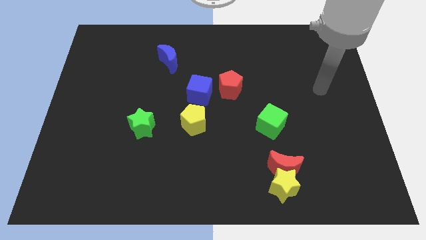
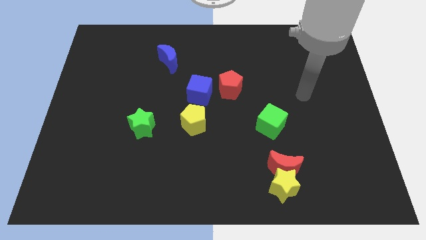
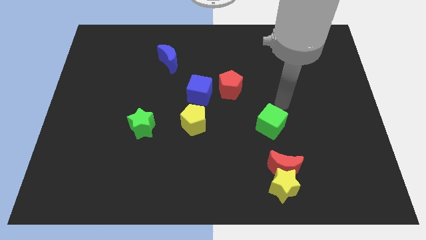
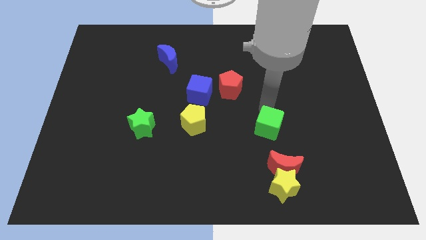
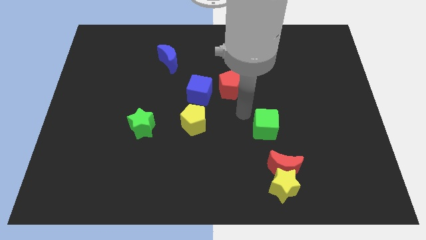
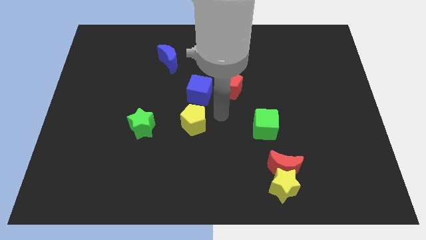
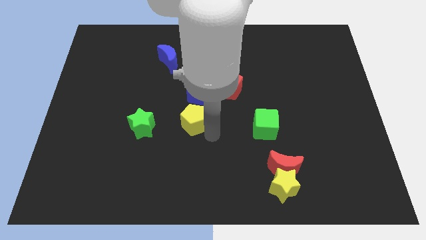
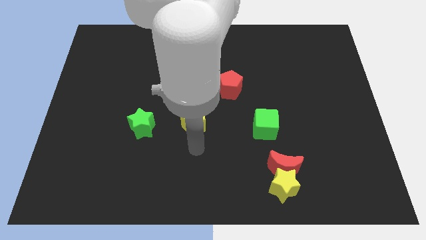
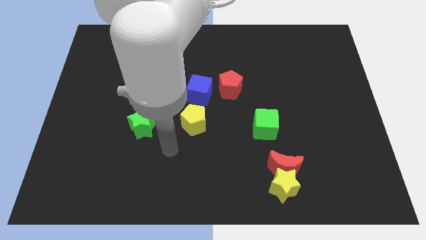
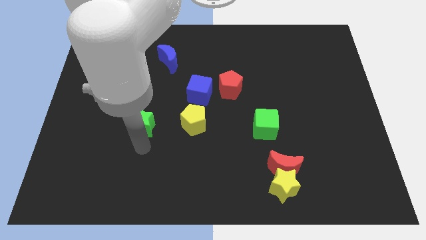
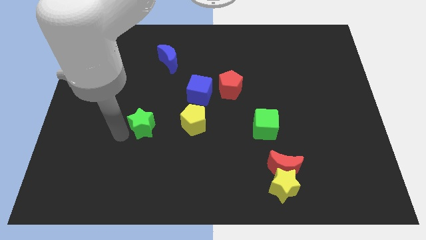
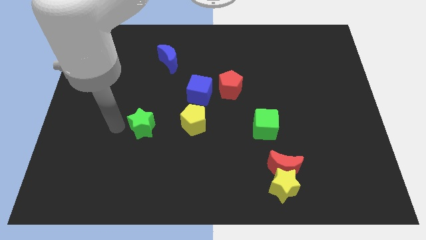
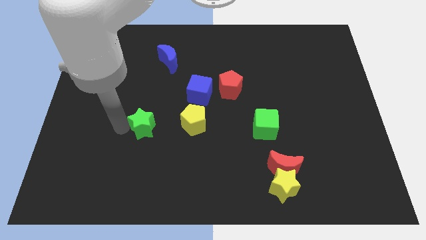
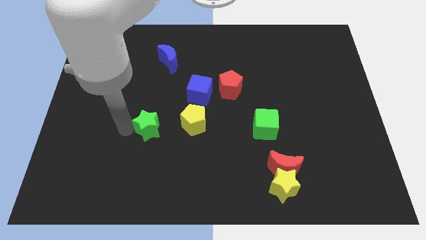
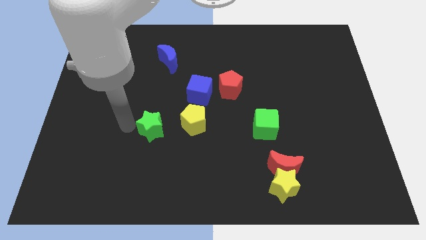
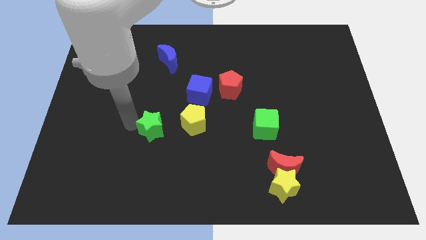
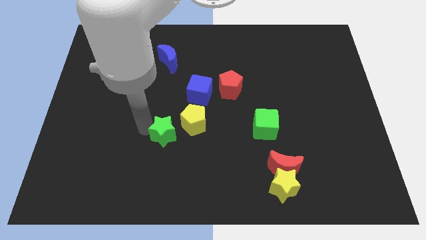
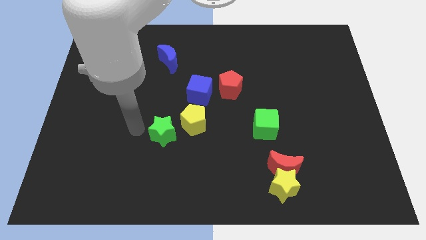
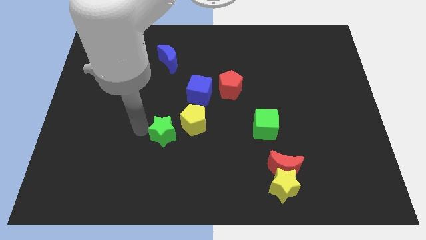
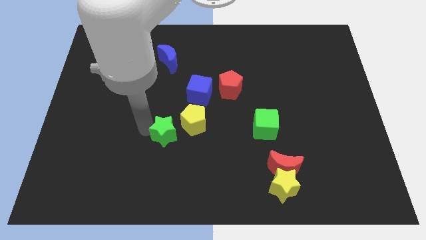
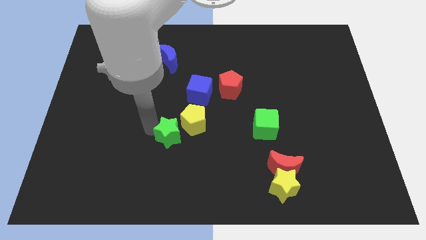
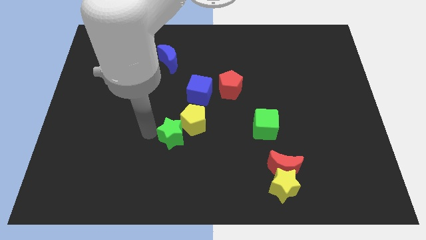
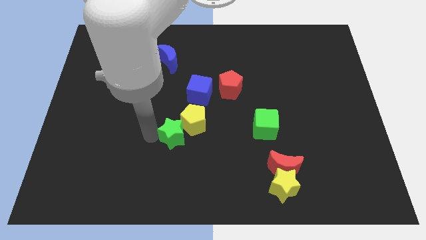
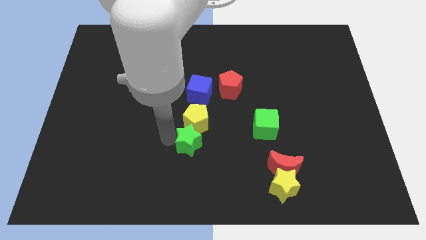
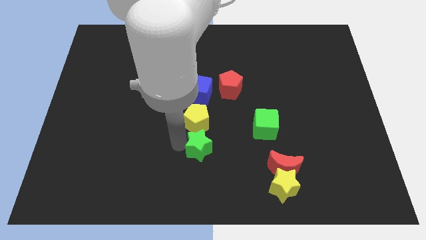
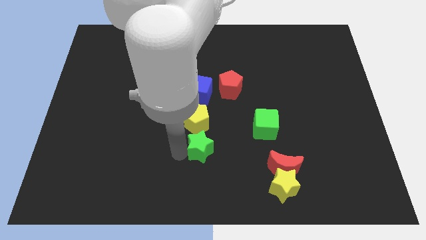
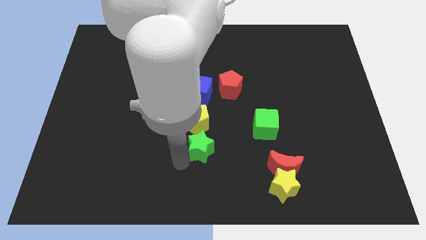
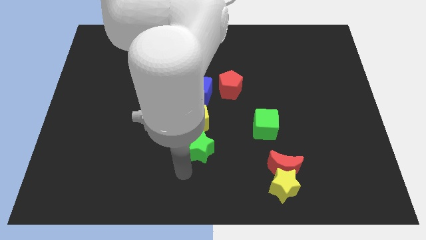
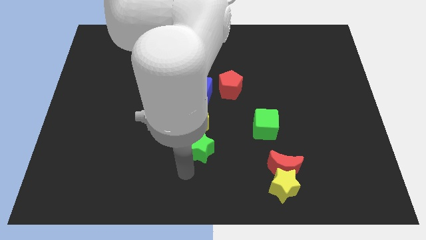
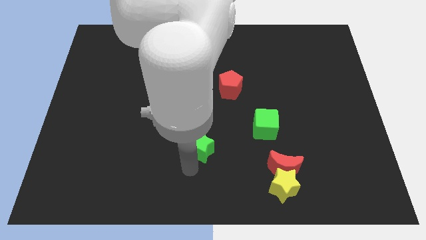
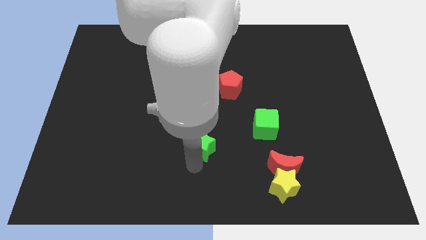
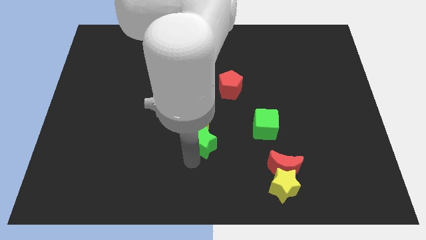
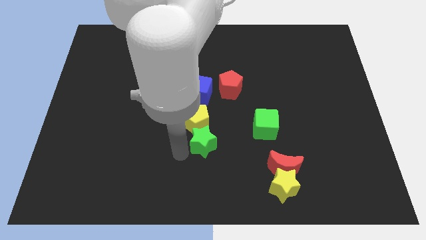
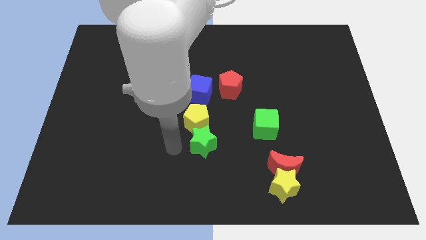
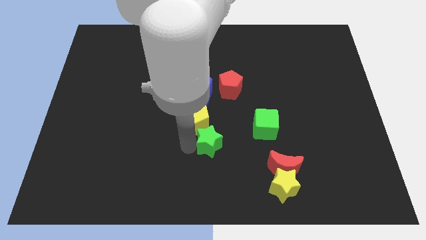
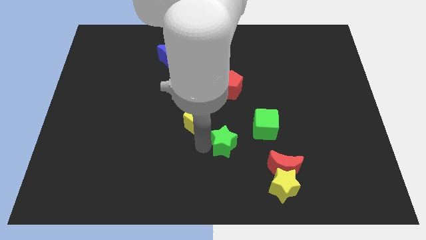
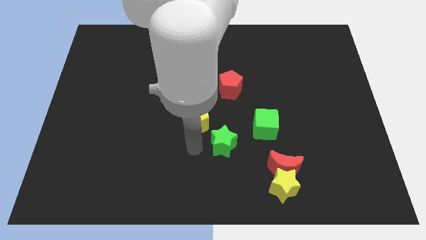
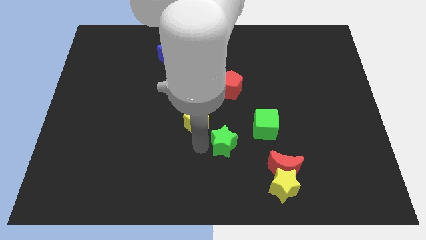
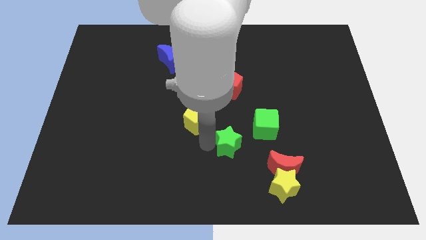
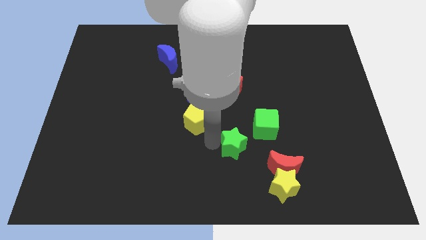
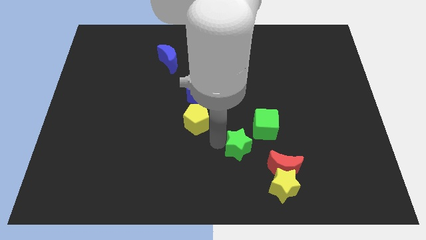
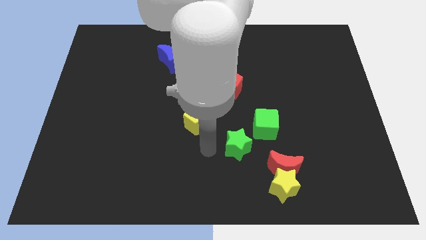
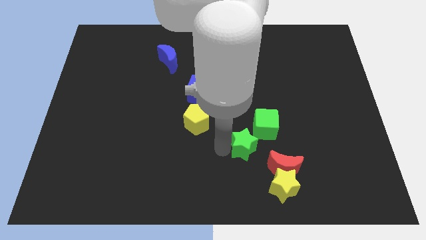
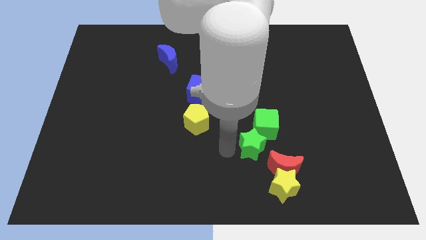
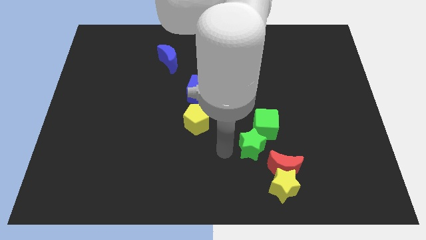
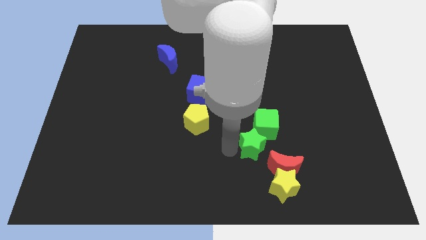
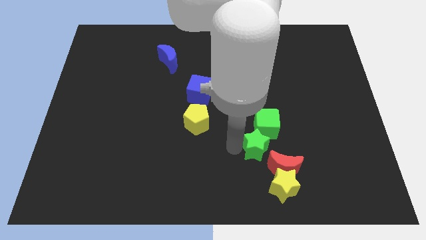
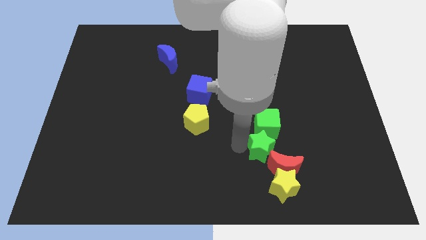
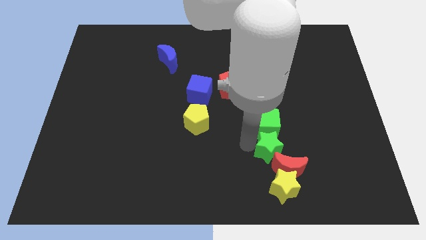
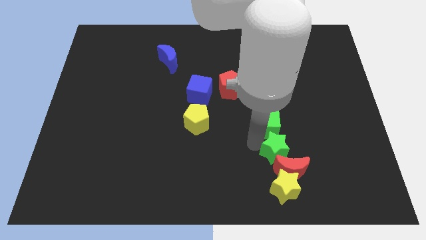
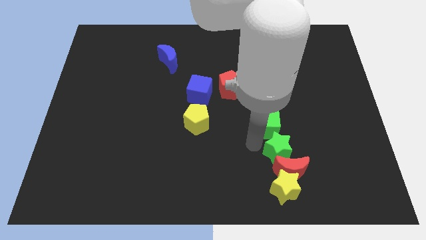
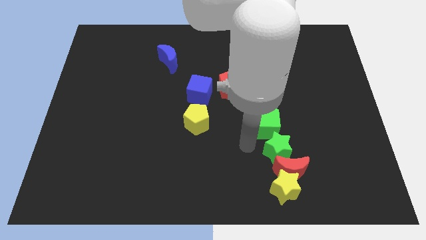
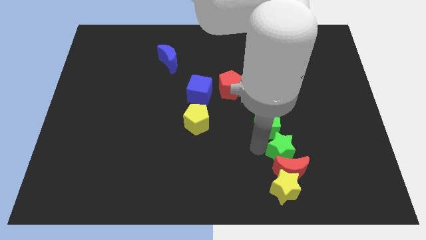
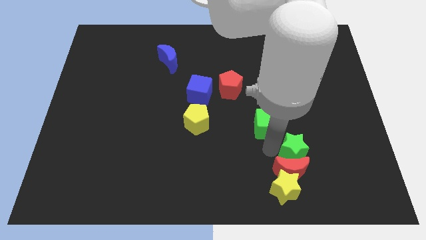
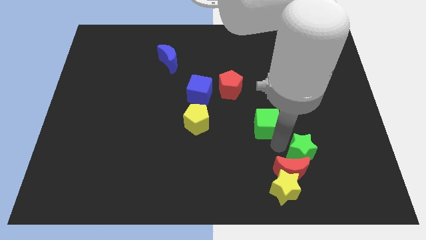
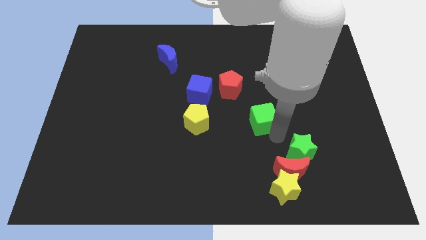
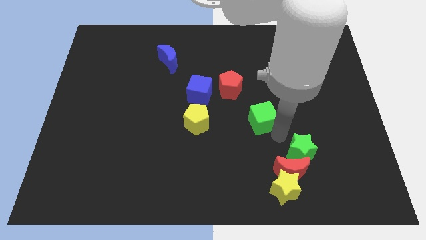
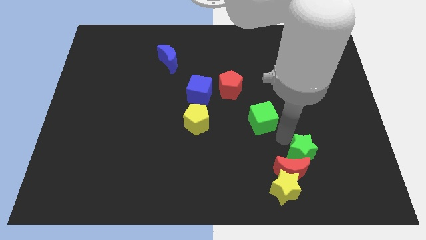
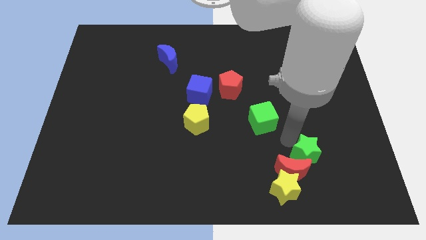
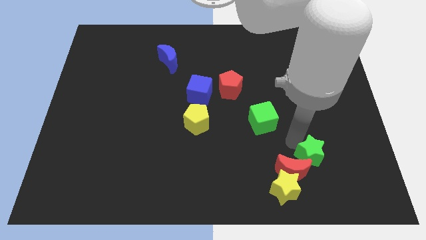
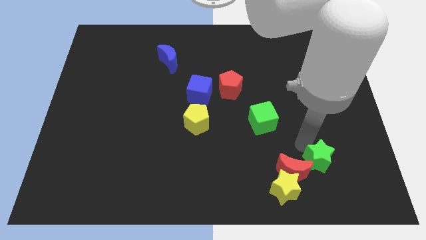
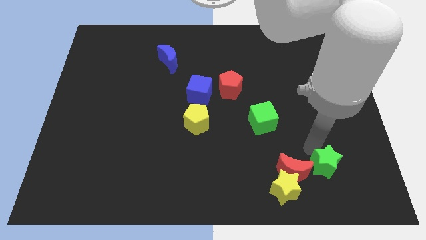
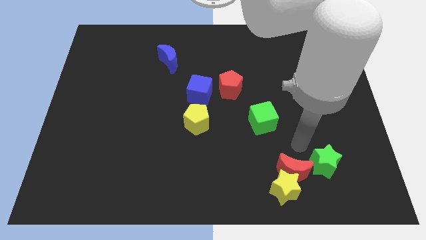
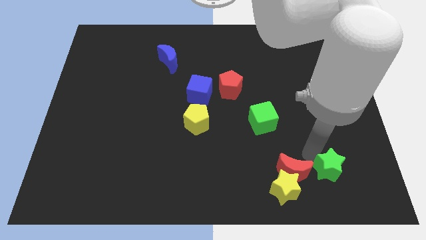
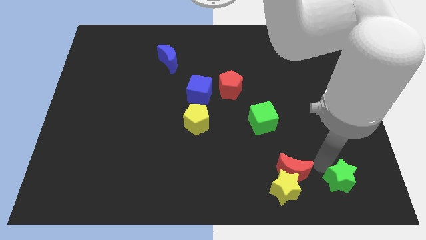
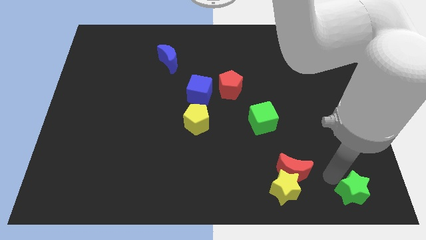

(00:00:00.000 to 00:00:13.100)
move the green star to the bottom right
